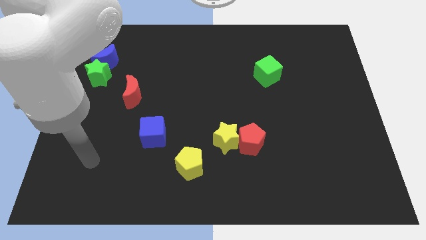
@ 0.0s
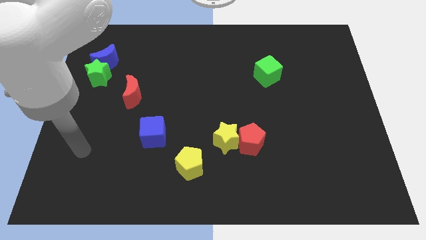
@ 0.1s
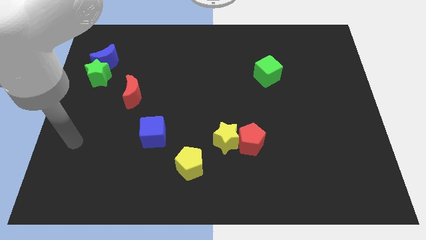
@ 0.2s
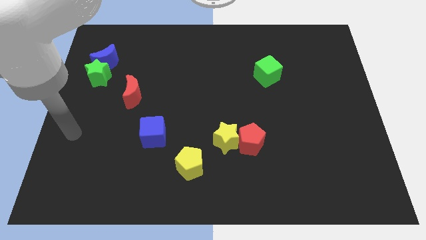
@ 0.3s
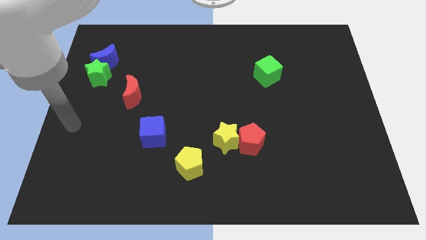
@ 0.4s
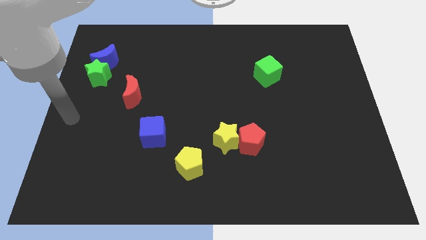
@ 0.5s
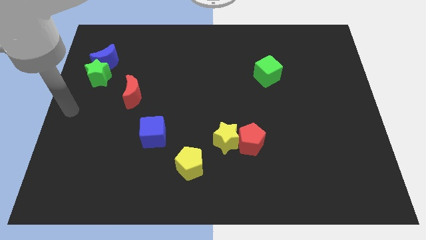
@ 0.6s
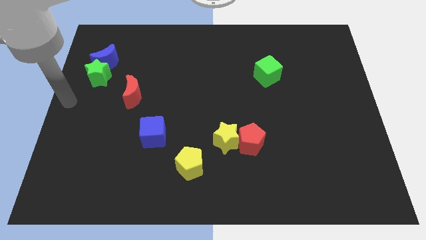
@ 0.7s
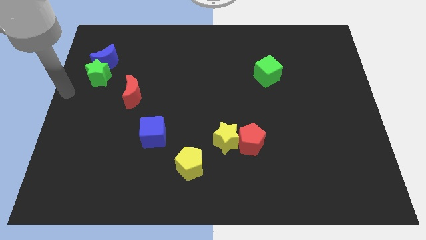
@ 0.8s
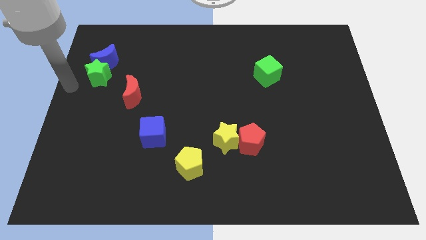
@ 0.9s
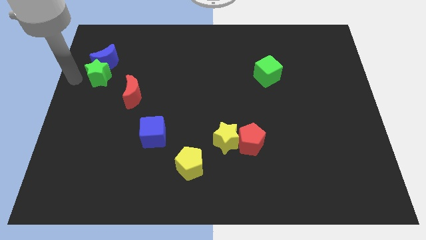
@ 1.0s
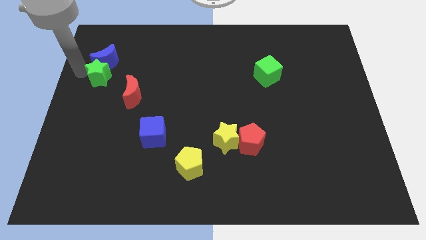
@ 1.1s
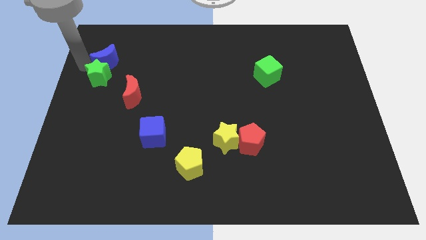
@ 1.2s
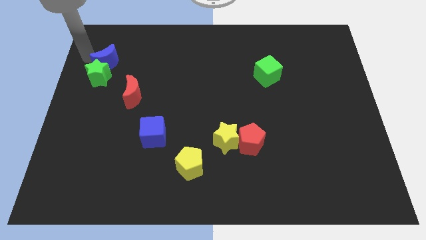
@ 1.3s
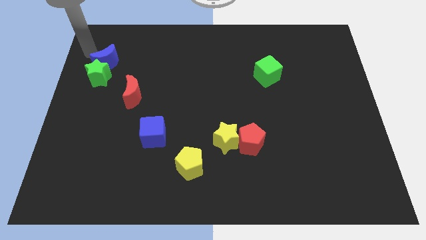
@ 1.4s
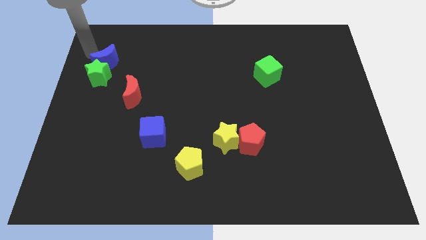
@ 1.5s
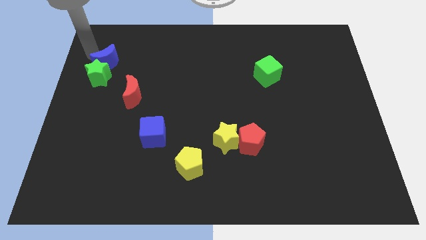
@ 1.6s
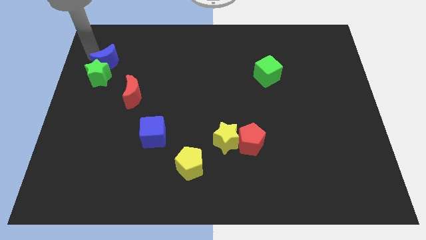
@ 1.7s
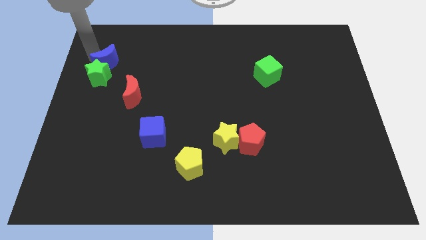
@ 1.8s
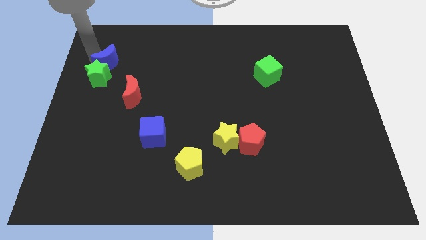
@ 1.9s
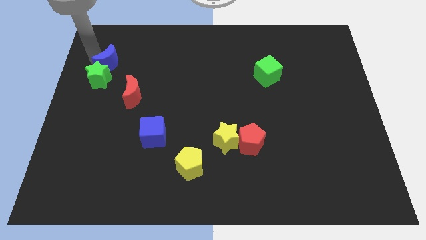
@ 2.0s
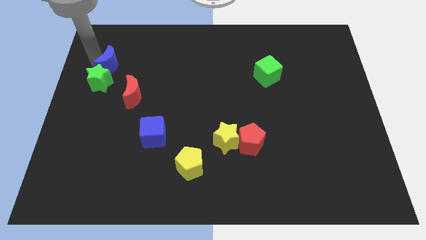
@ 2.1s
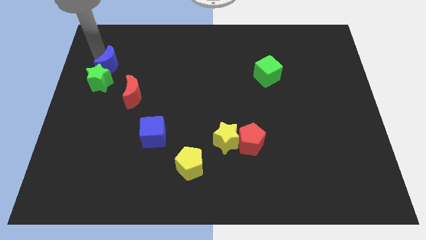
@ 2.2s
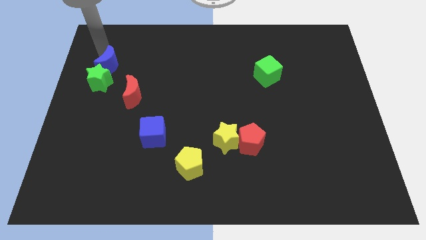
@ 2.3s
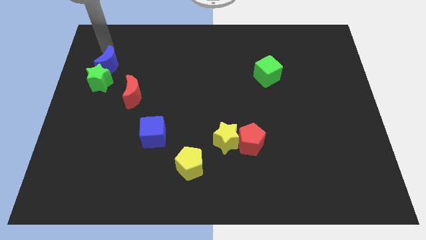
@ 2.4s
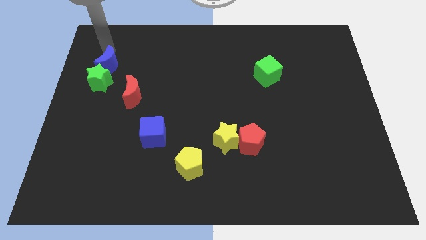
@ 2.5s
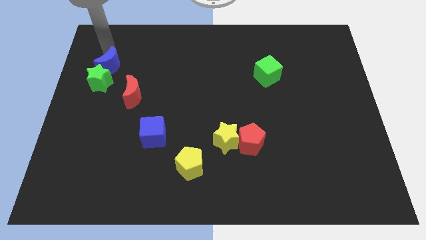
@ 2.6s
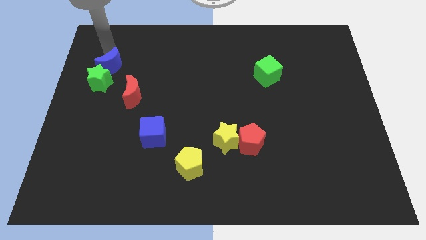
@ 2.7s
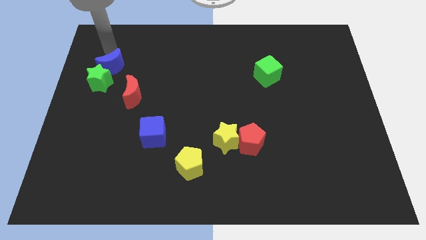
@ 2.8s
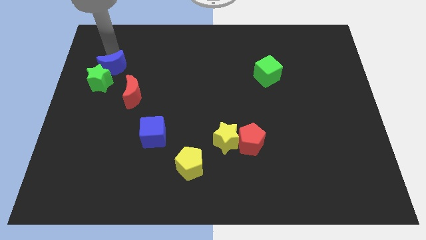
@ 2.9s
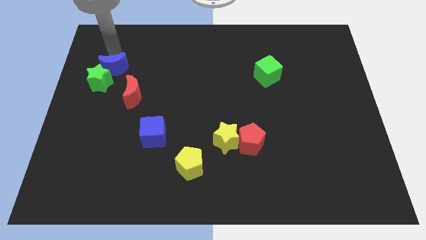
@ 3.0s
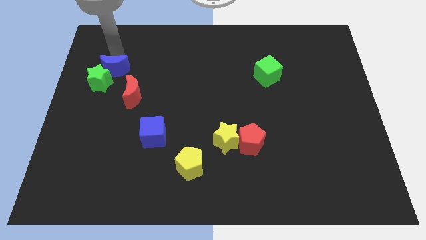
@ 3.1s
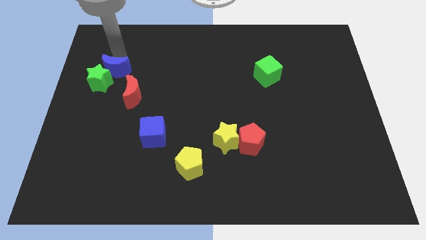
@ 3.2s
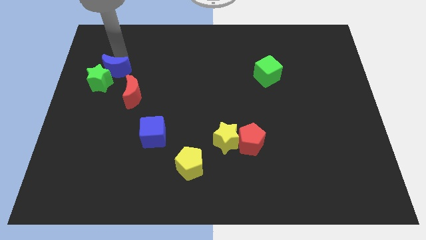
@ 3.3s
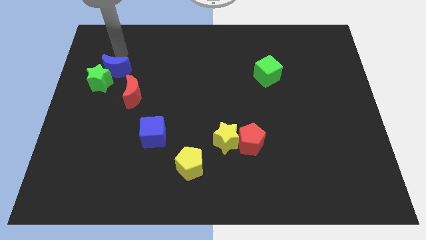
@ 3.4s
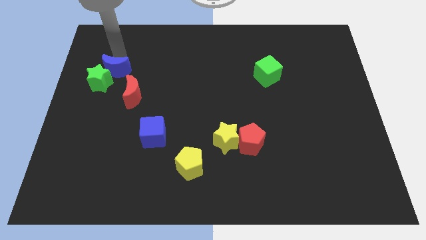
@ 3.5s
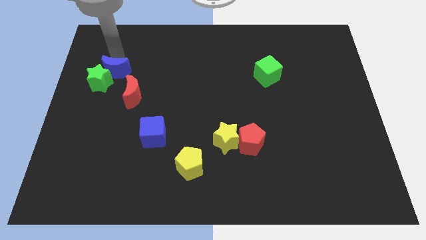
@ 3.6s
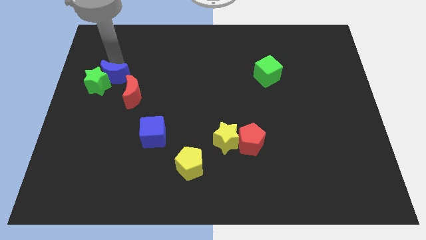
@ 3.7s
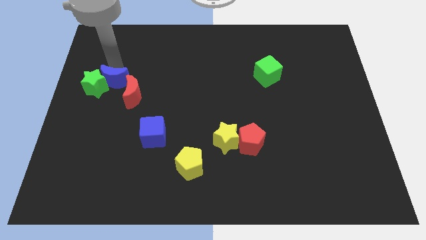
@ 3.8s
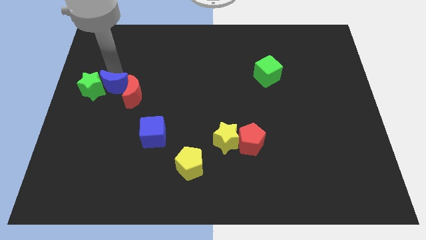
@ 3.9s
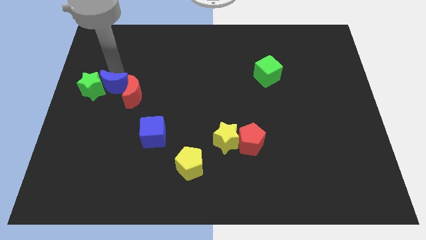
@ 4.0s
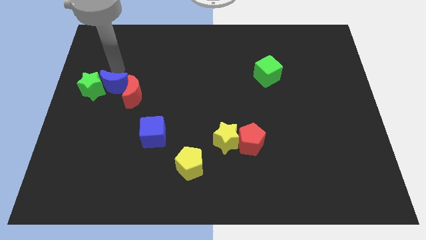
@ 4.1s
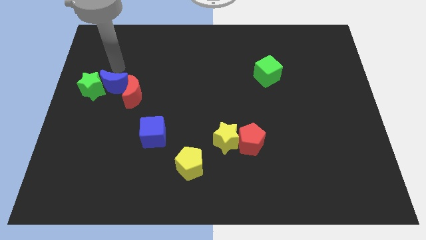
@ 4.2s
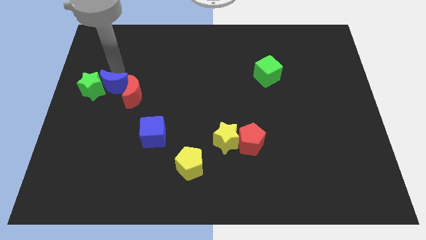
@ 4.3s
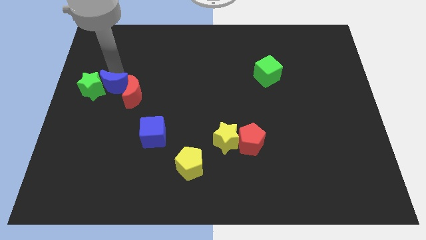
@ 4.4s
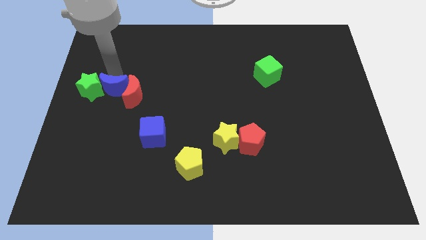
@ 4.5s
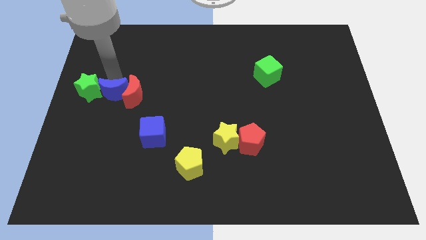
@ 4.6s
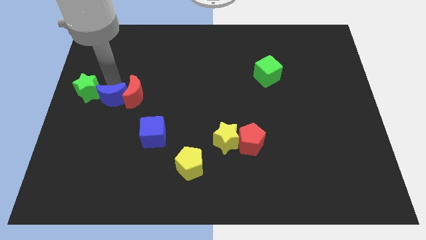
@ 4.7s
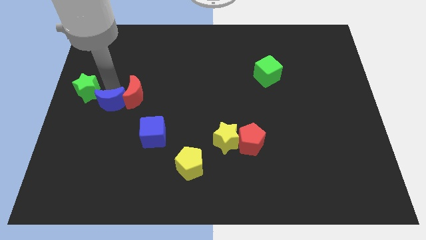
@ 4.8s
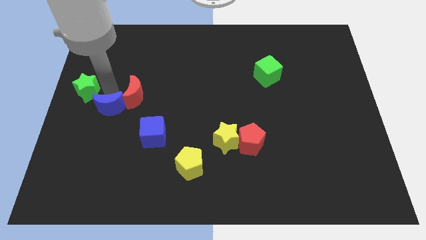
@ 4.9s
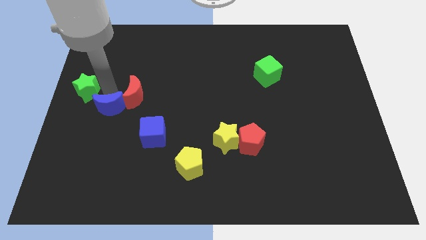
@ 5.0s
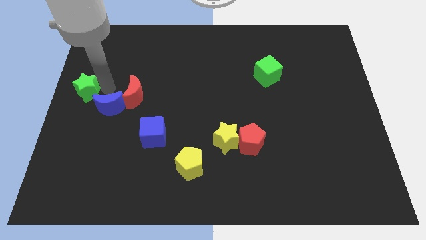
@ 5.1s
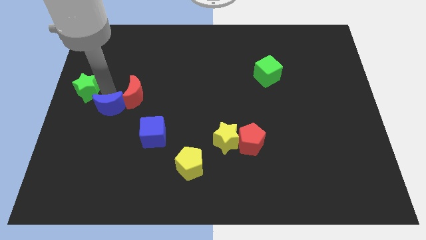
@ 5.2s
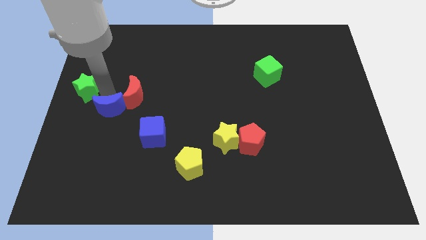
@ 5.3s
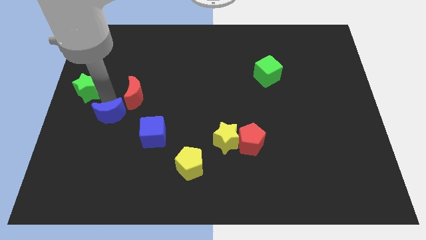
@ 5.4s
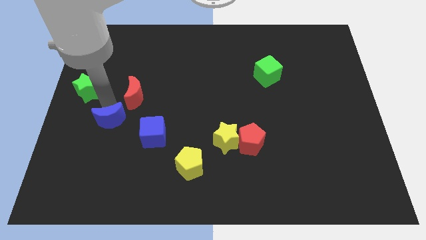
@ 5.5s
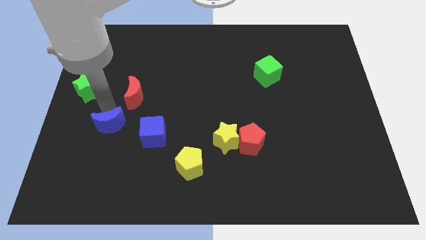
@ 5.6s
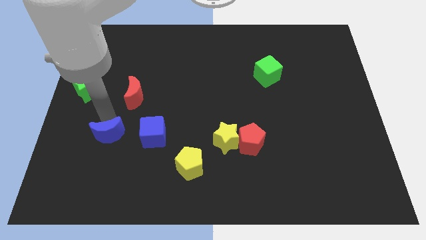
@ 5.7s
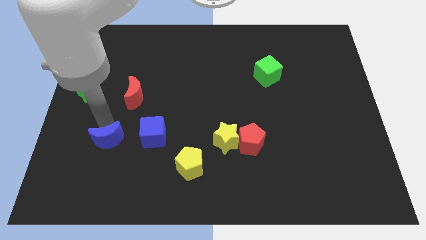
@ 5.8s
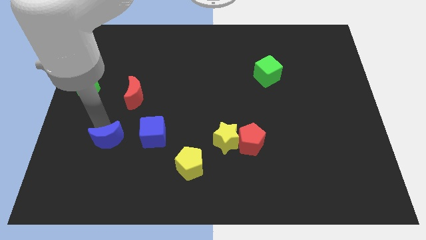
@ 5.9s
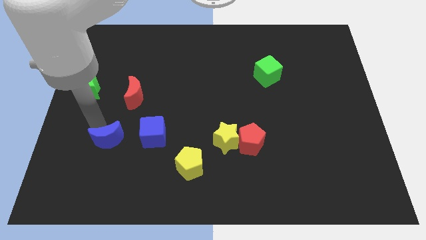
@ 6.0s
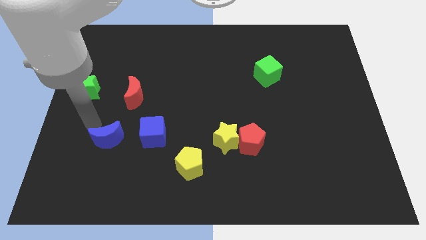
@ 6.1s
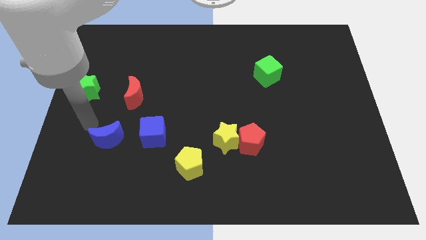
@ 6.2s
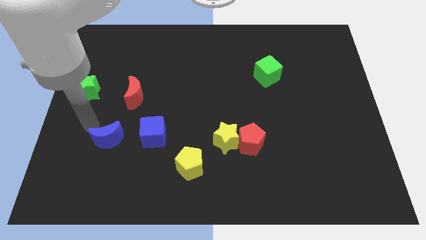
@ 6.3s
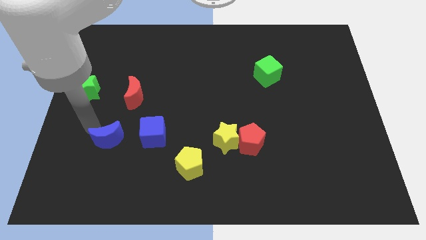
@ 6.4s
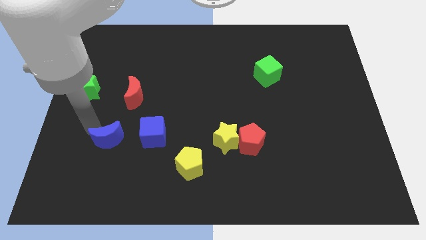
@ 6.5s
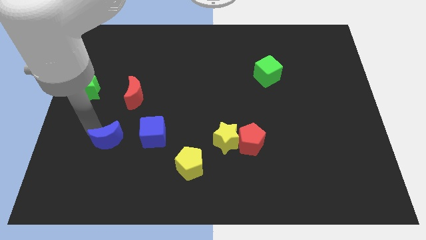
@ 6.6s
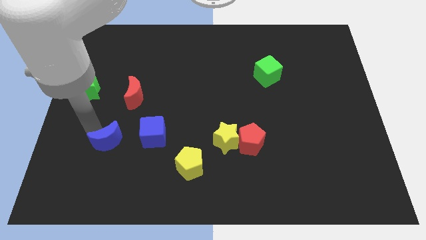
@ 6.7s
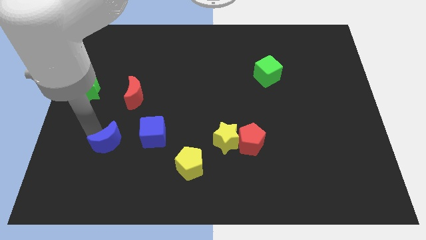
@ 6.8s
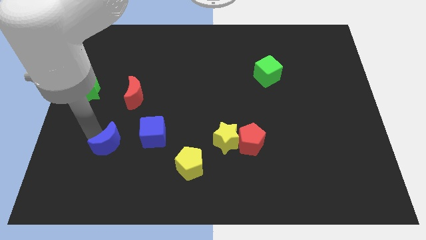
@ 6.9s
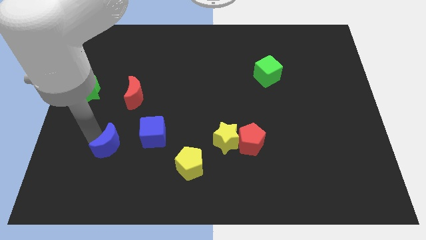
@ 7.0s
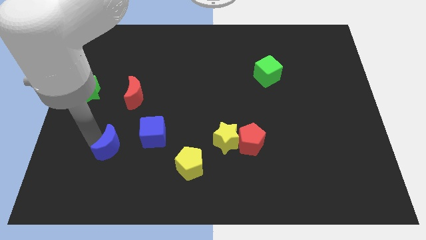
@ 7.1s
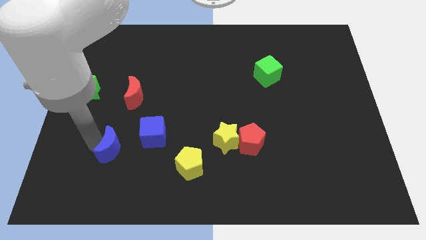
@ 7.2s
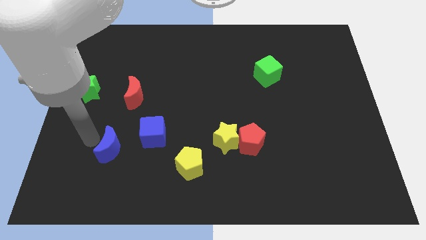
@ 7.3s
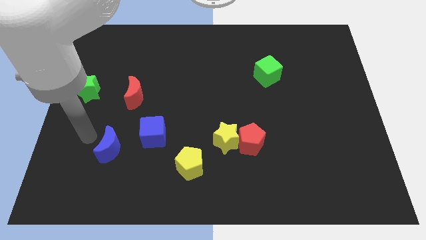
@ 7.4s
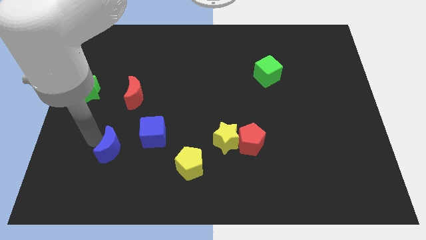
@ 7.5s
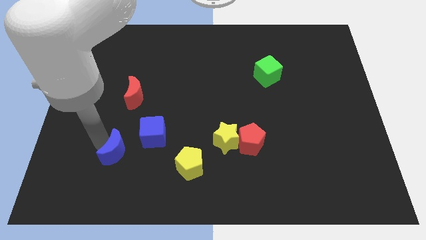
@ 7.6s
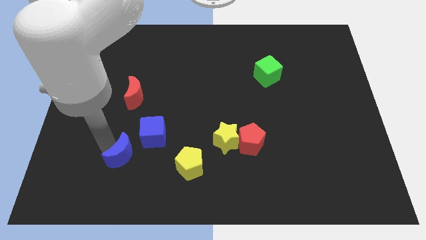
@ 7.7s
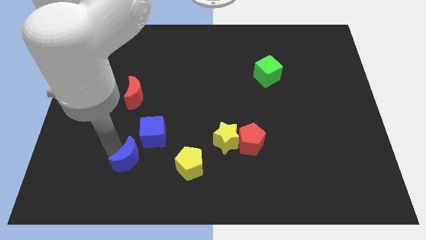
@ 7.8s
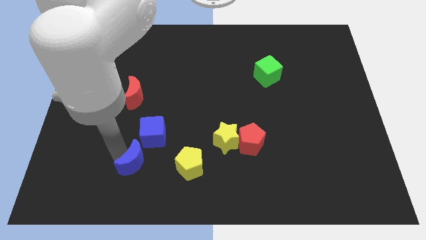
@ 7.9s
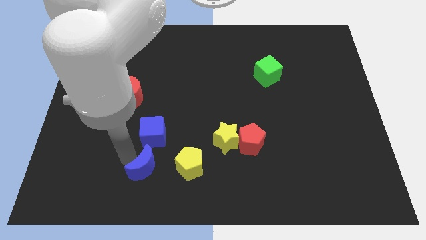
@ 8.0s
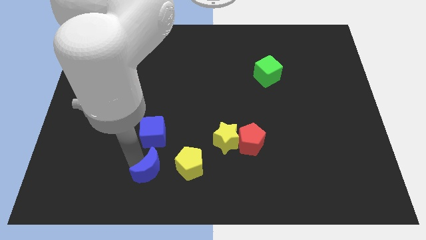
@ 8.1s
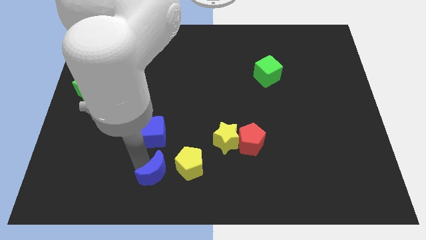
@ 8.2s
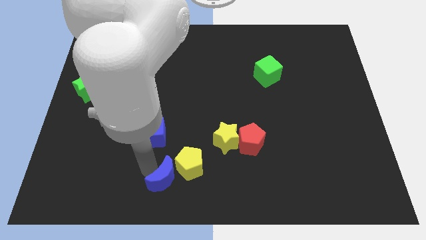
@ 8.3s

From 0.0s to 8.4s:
put the blue moon to the bottom
